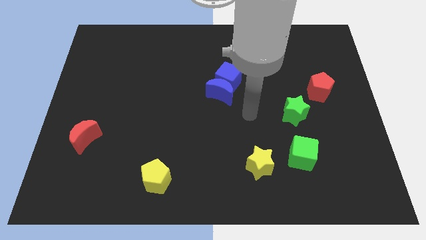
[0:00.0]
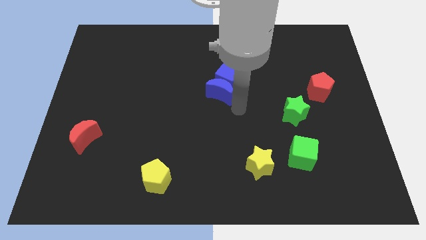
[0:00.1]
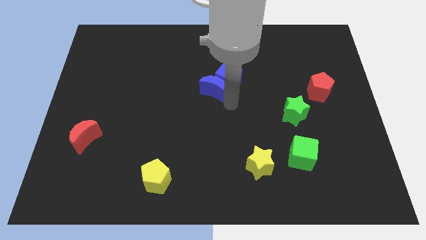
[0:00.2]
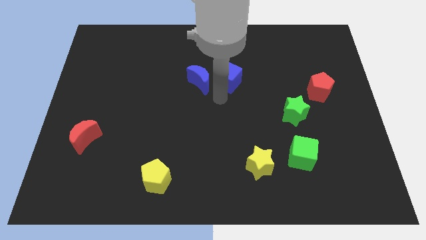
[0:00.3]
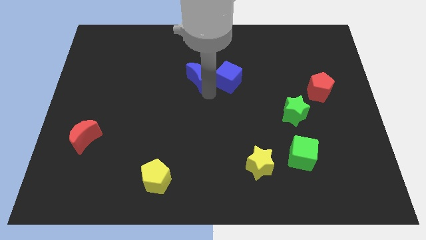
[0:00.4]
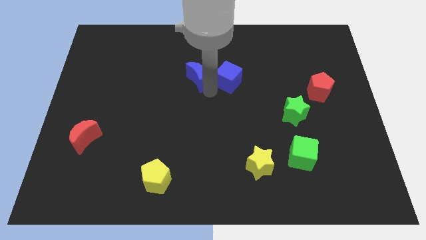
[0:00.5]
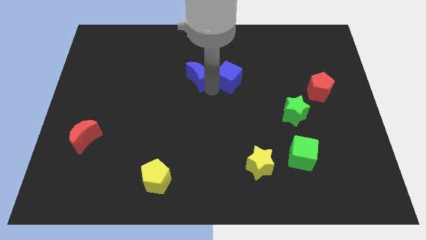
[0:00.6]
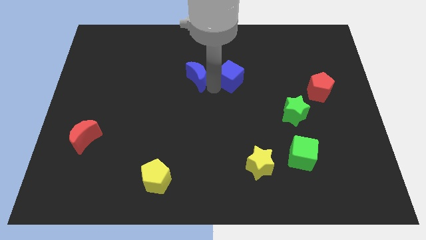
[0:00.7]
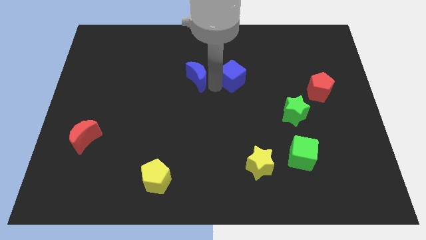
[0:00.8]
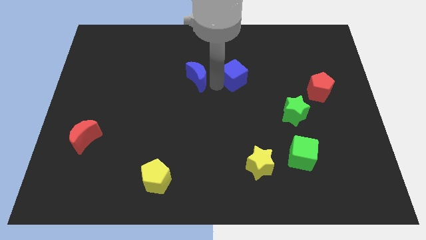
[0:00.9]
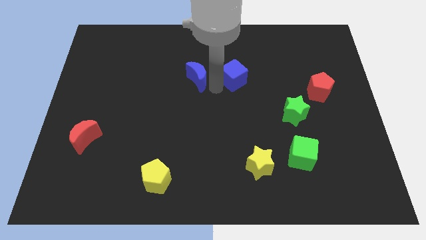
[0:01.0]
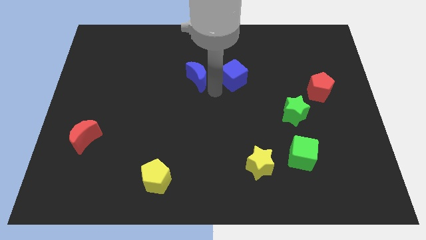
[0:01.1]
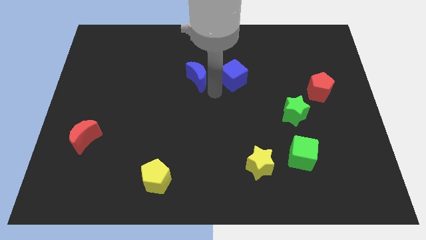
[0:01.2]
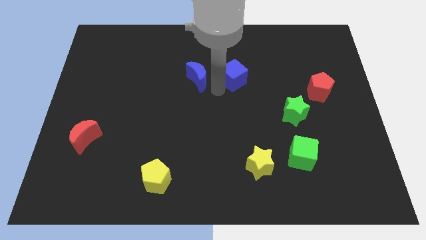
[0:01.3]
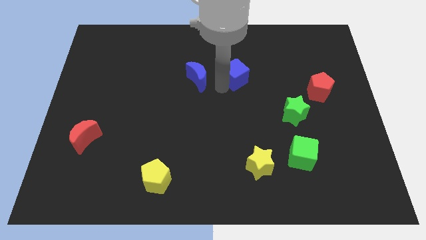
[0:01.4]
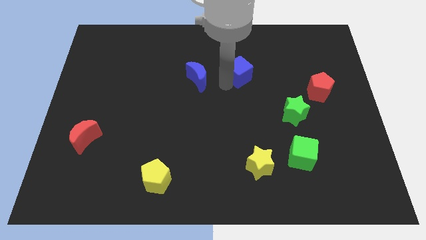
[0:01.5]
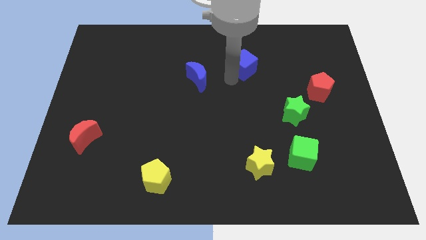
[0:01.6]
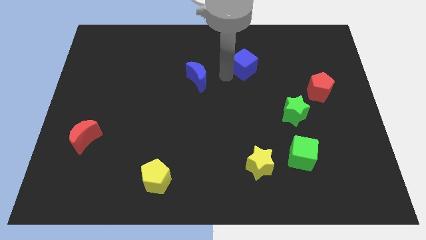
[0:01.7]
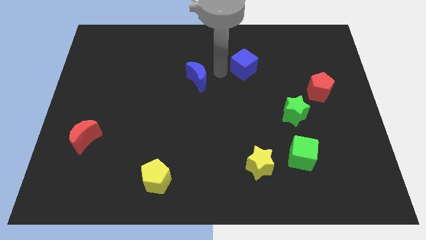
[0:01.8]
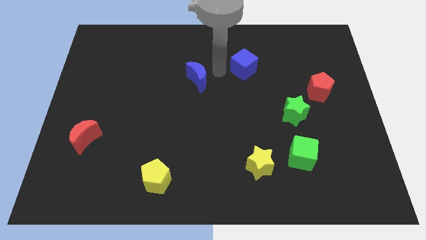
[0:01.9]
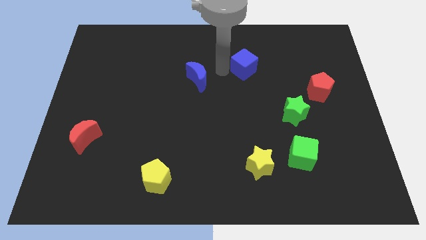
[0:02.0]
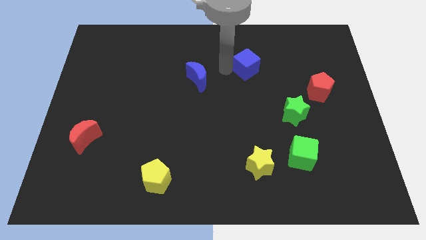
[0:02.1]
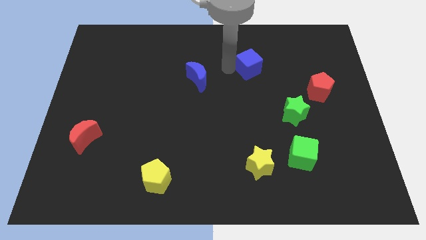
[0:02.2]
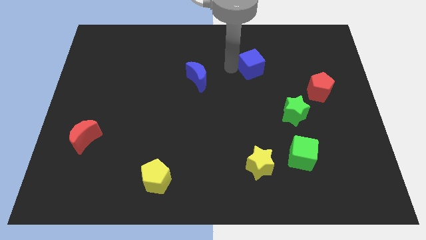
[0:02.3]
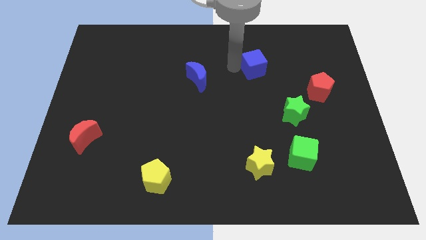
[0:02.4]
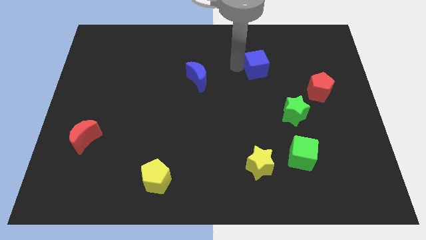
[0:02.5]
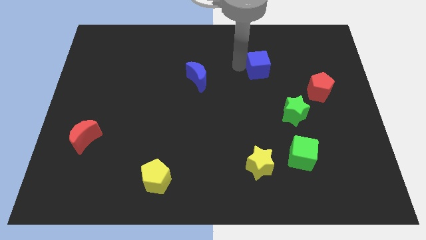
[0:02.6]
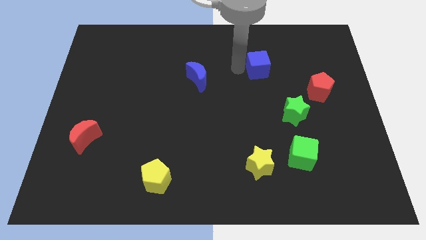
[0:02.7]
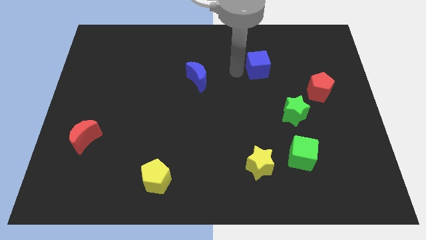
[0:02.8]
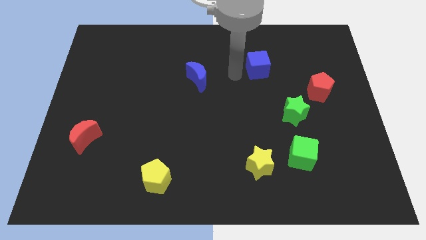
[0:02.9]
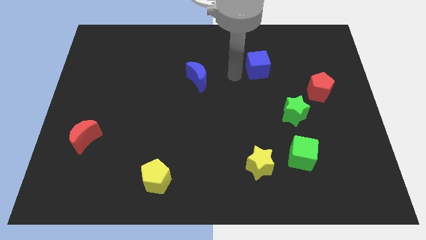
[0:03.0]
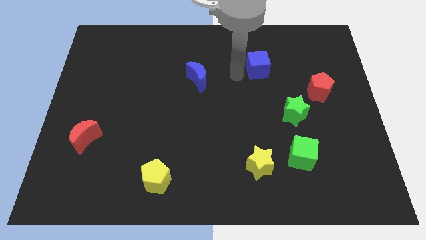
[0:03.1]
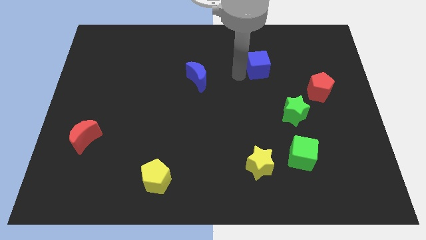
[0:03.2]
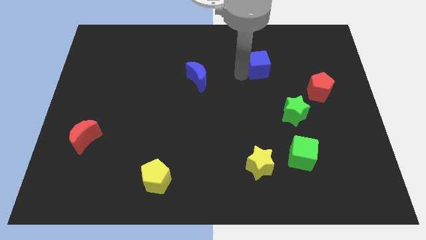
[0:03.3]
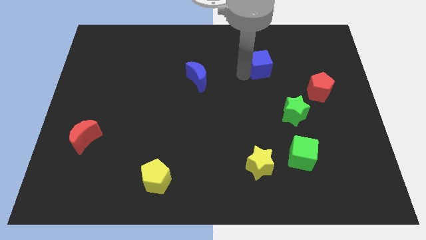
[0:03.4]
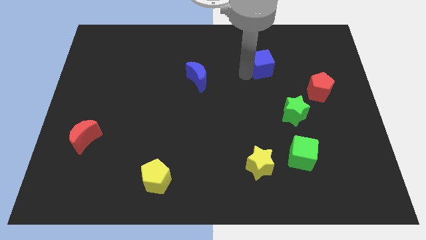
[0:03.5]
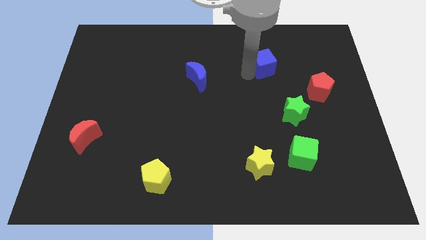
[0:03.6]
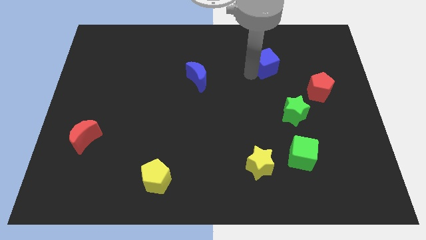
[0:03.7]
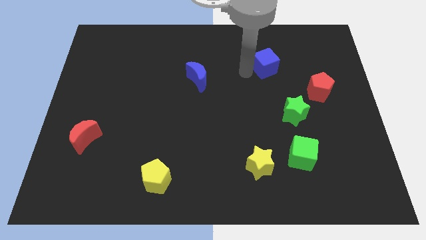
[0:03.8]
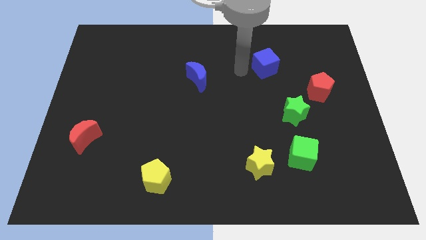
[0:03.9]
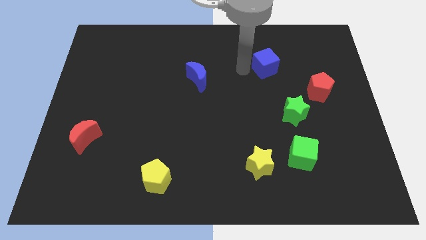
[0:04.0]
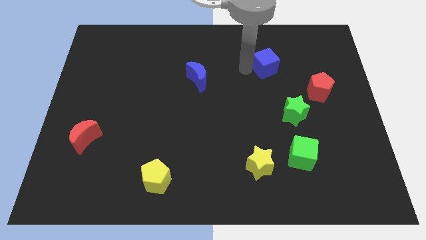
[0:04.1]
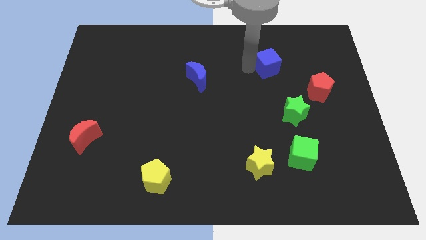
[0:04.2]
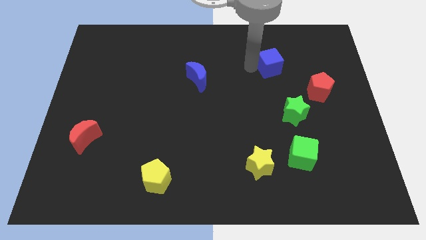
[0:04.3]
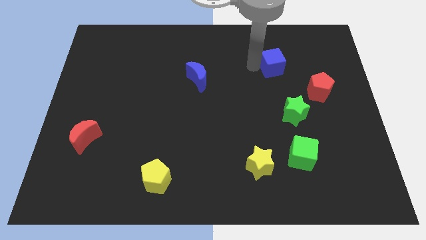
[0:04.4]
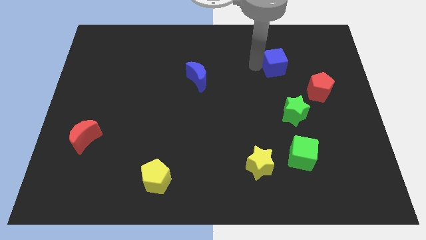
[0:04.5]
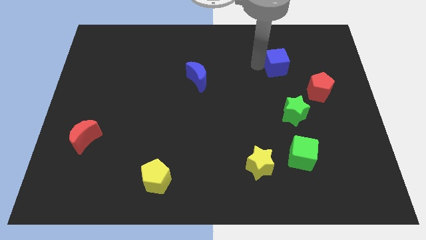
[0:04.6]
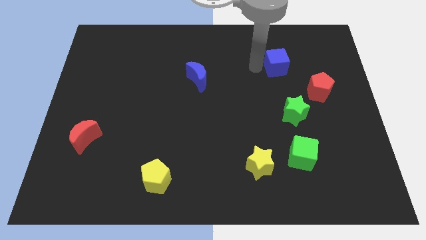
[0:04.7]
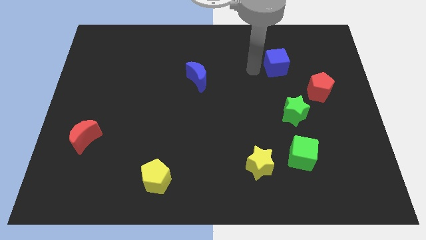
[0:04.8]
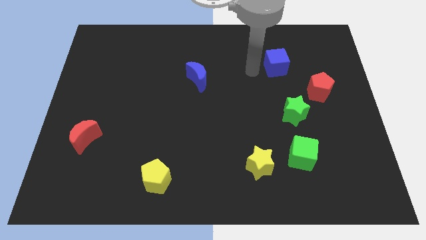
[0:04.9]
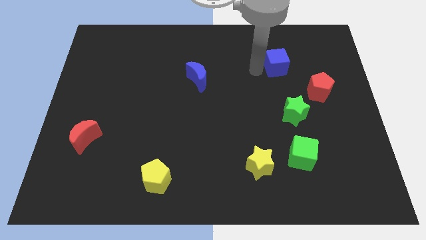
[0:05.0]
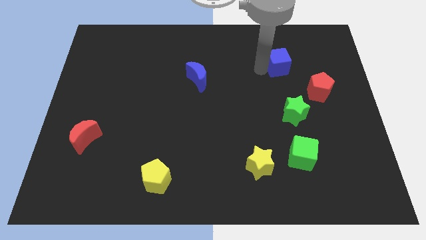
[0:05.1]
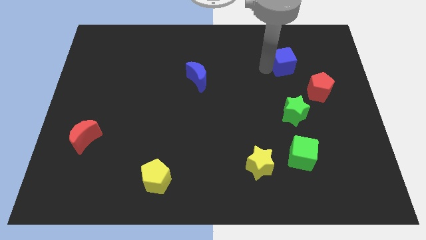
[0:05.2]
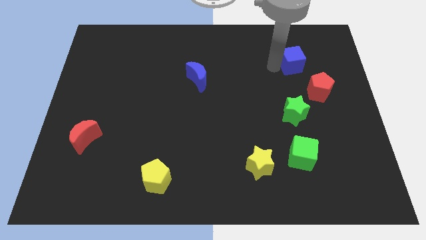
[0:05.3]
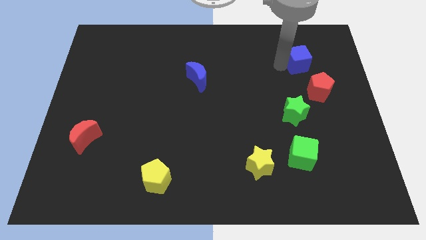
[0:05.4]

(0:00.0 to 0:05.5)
slide the blue cube above the red pentagon

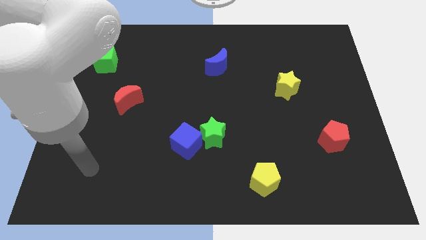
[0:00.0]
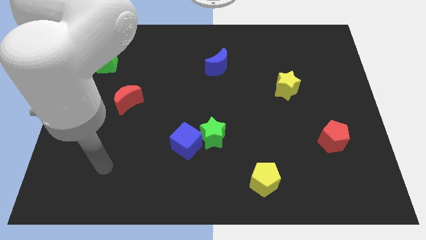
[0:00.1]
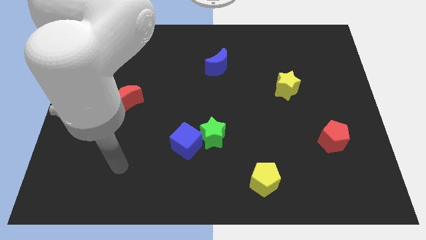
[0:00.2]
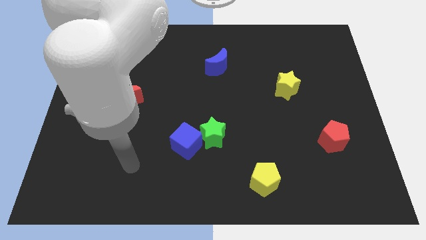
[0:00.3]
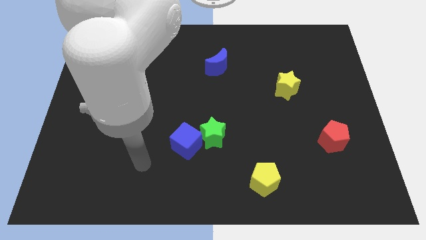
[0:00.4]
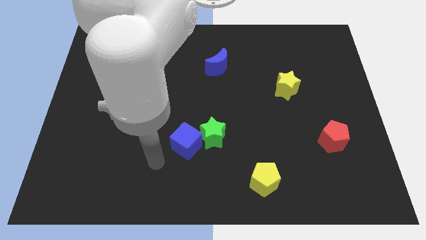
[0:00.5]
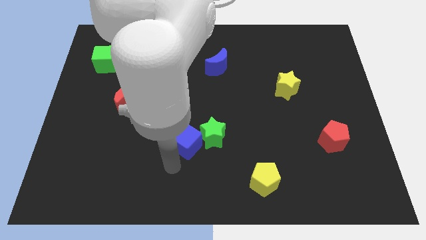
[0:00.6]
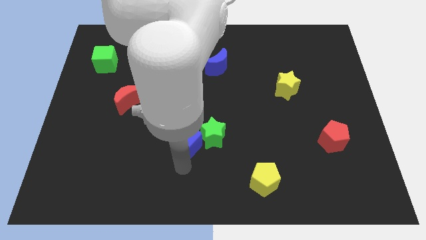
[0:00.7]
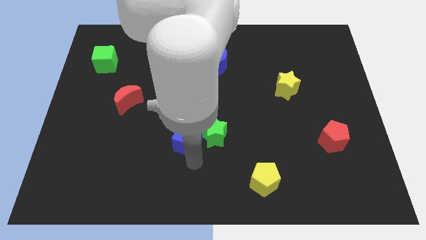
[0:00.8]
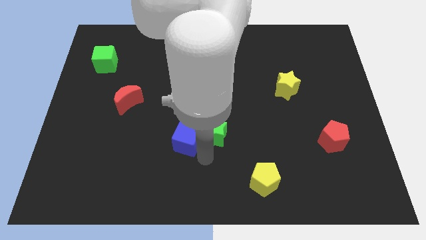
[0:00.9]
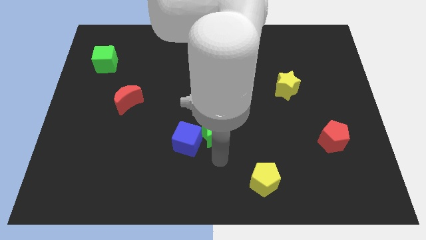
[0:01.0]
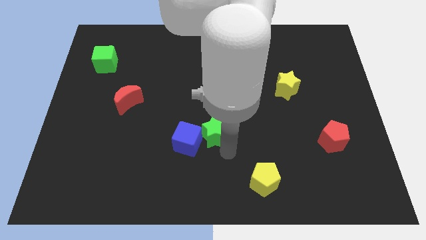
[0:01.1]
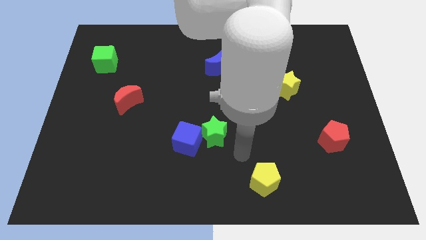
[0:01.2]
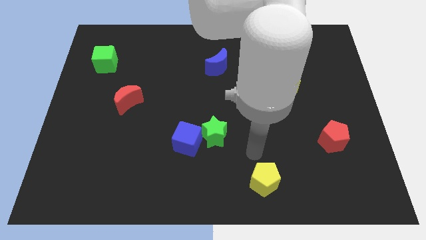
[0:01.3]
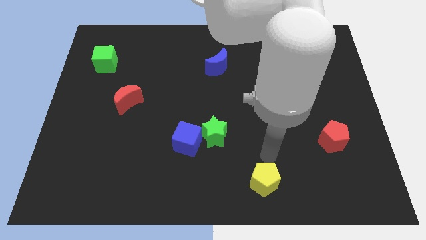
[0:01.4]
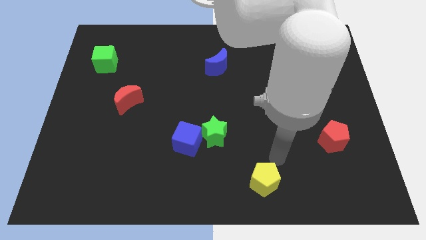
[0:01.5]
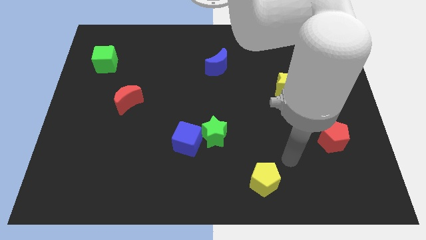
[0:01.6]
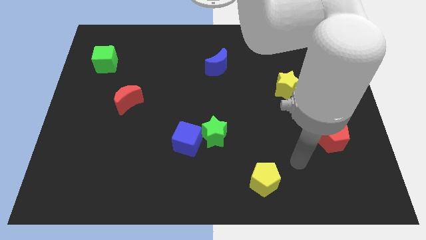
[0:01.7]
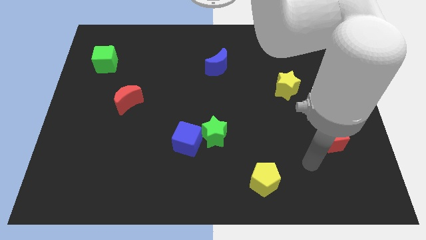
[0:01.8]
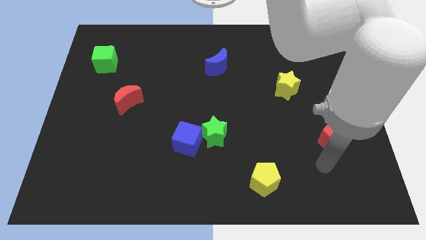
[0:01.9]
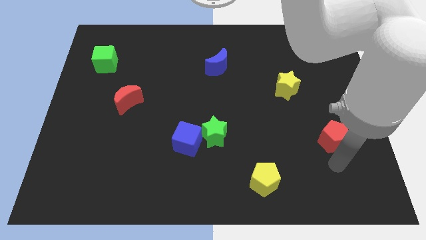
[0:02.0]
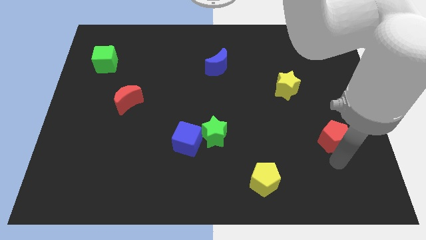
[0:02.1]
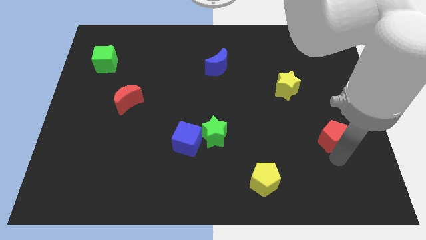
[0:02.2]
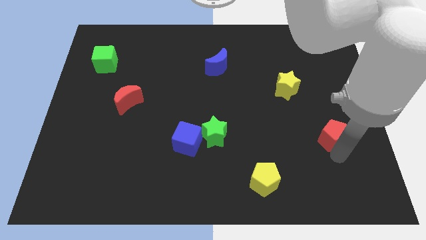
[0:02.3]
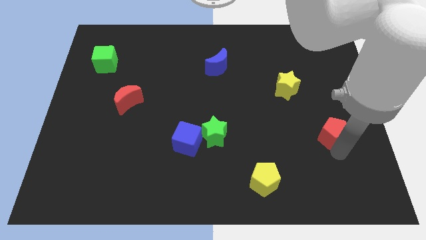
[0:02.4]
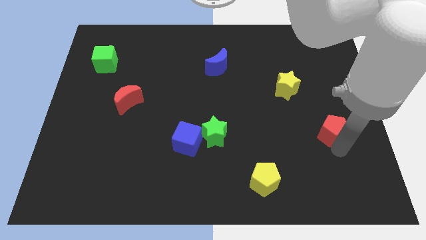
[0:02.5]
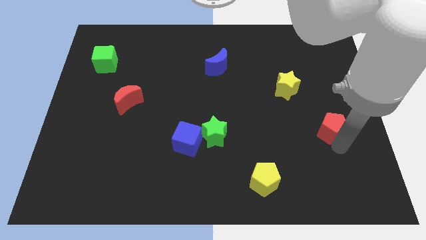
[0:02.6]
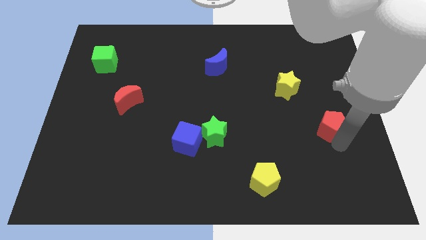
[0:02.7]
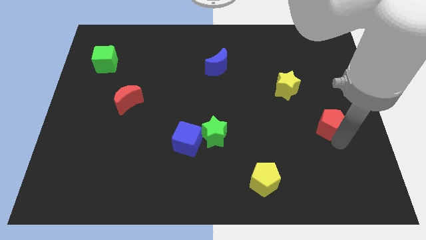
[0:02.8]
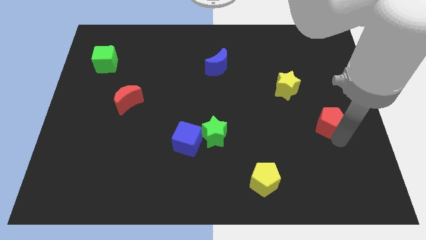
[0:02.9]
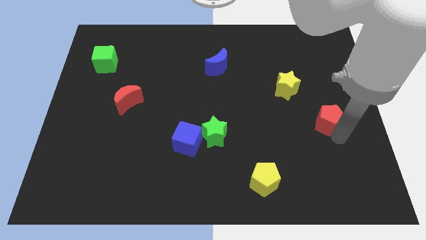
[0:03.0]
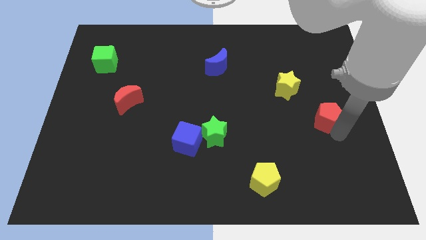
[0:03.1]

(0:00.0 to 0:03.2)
push the red pentagon diagonally down and to the right of the yellow star
